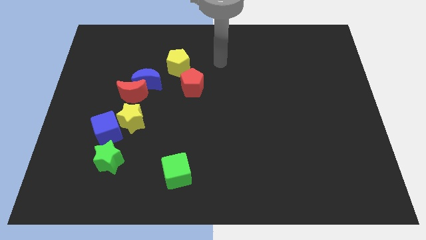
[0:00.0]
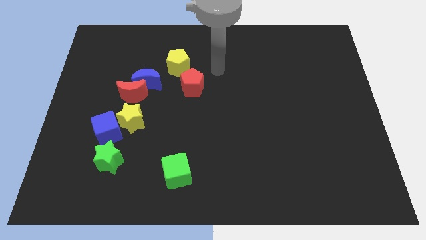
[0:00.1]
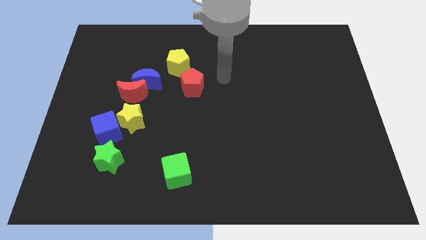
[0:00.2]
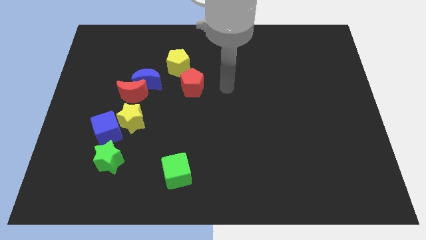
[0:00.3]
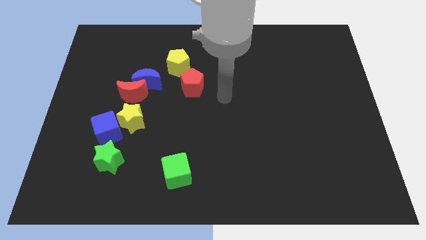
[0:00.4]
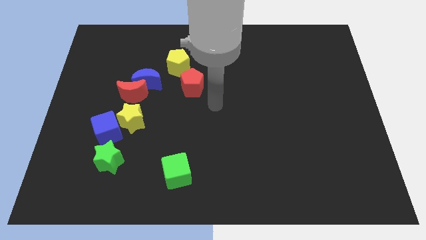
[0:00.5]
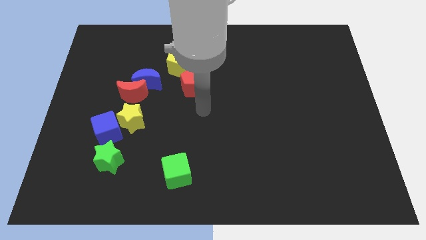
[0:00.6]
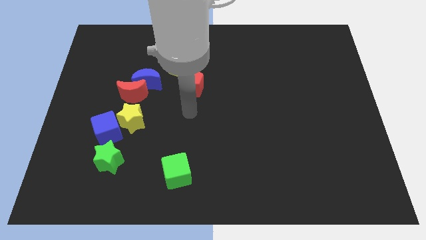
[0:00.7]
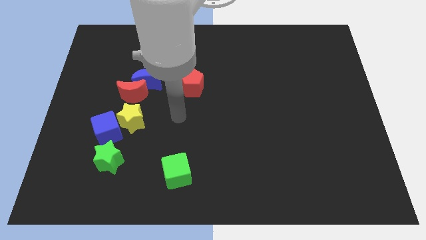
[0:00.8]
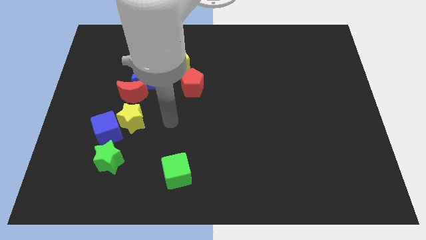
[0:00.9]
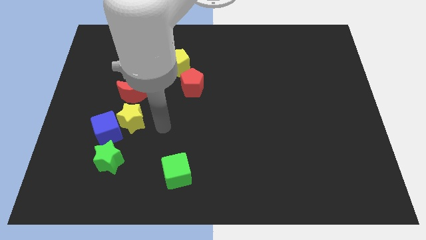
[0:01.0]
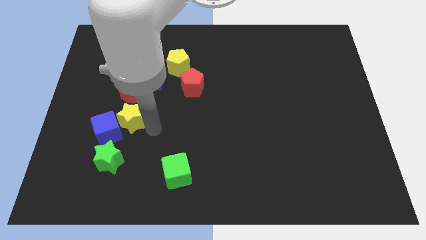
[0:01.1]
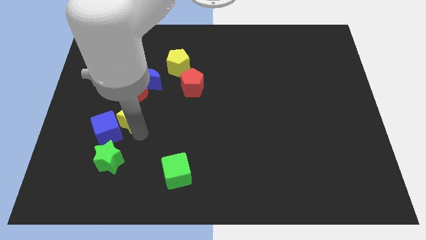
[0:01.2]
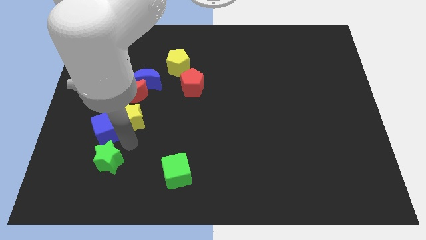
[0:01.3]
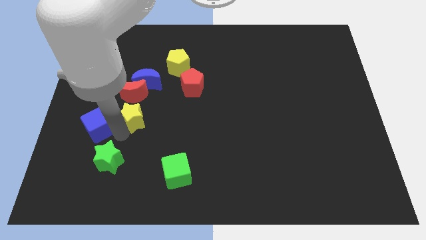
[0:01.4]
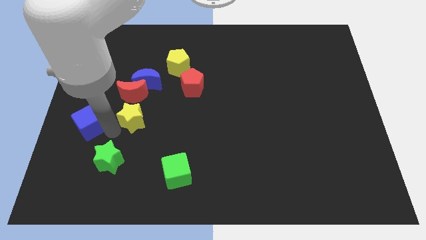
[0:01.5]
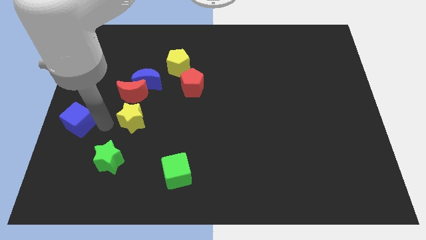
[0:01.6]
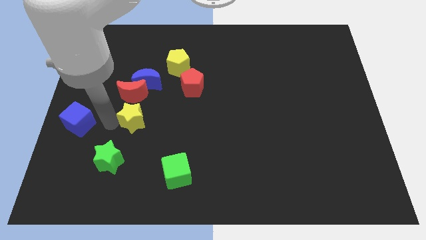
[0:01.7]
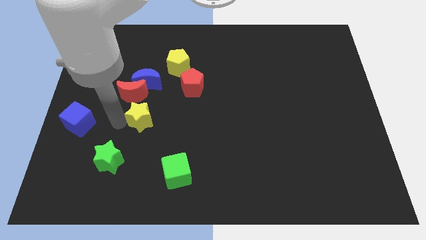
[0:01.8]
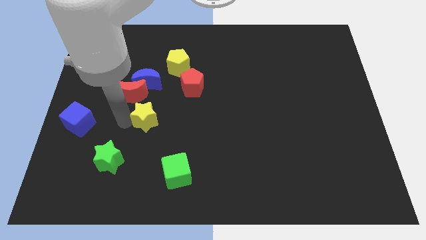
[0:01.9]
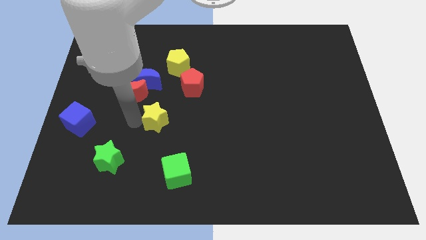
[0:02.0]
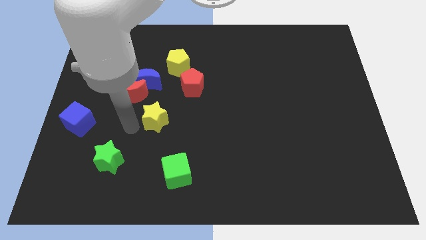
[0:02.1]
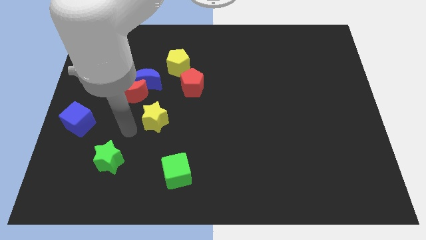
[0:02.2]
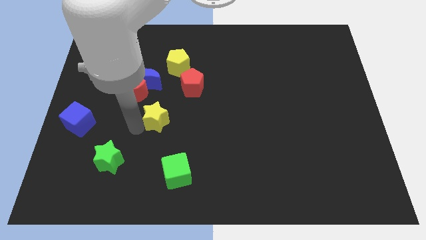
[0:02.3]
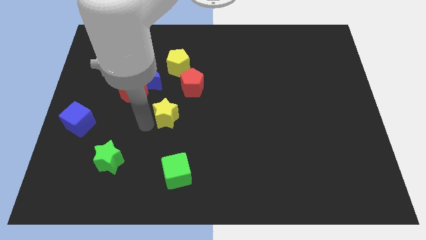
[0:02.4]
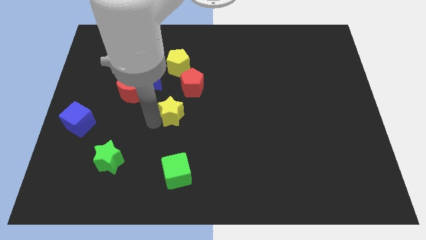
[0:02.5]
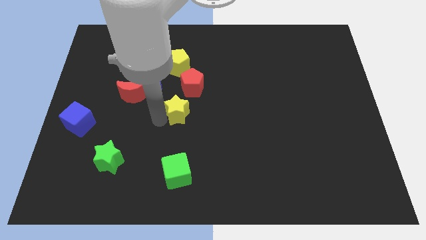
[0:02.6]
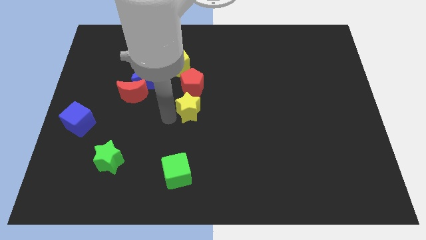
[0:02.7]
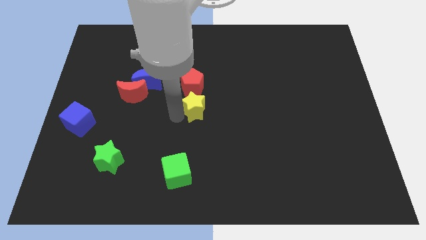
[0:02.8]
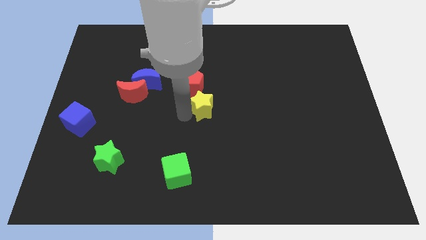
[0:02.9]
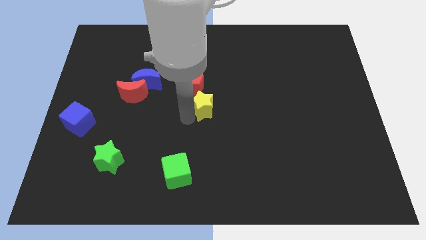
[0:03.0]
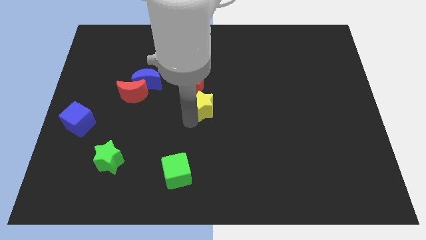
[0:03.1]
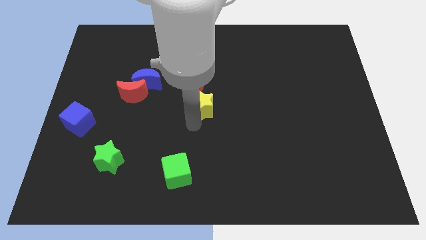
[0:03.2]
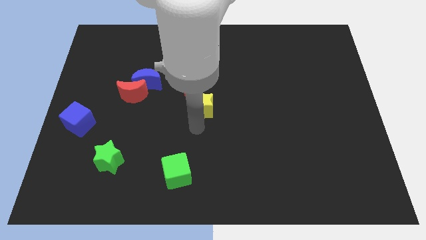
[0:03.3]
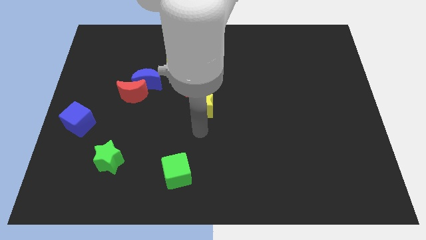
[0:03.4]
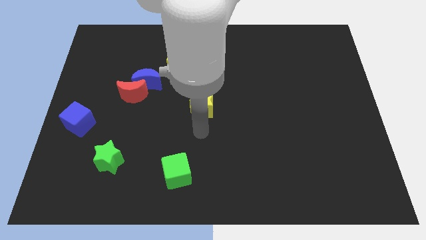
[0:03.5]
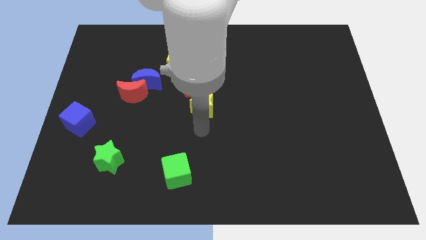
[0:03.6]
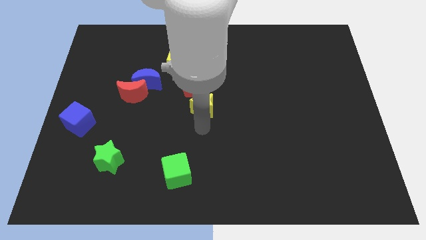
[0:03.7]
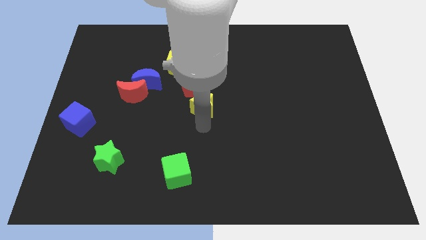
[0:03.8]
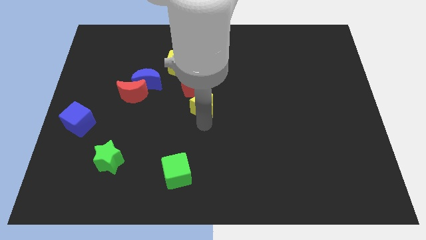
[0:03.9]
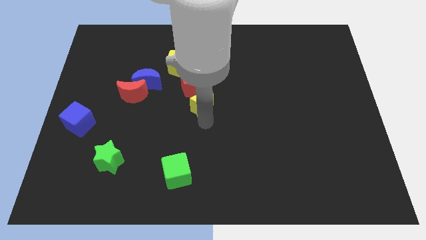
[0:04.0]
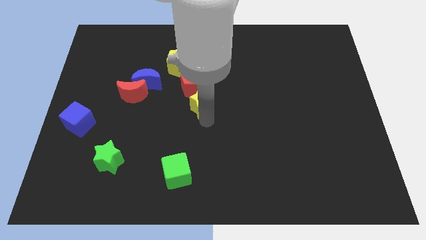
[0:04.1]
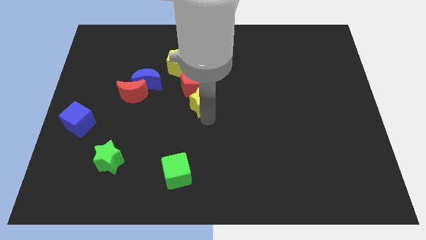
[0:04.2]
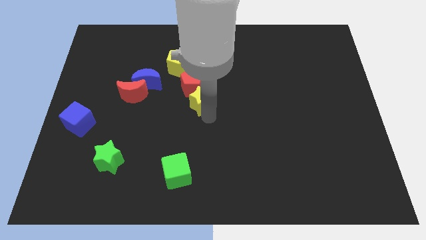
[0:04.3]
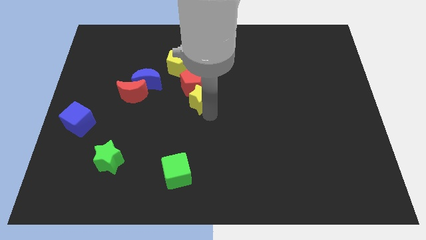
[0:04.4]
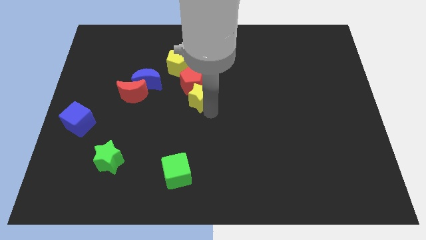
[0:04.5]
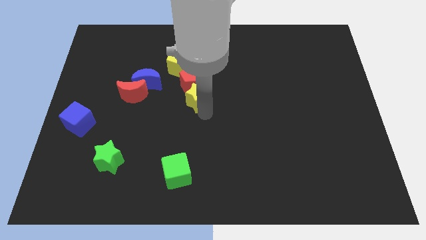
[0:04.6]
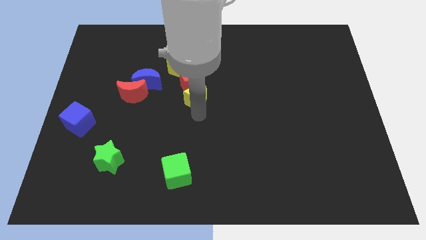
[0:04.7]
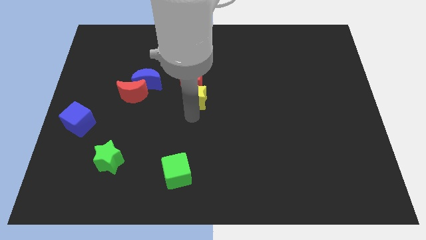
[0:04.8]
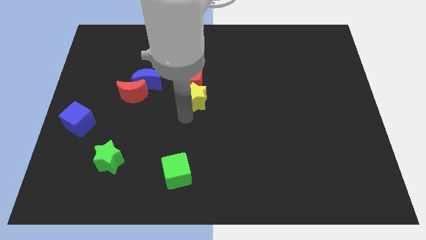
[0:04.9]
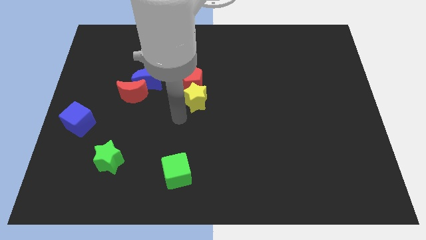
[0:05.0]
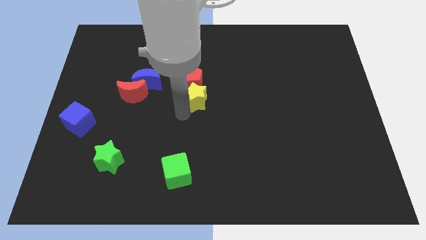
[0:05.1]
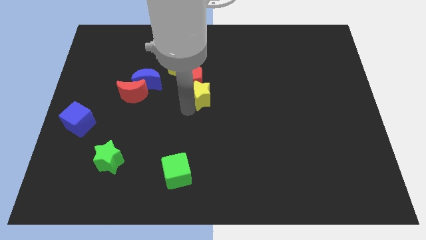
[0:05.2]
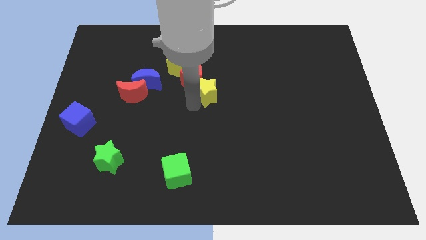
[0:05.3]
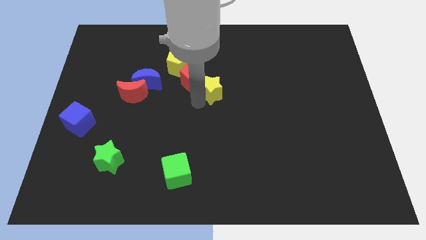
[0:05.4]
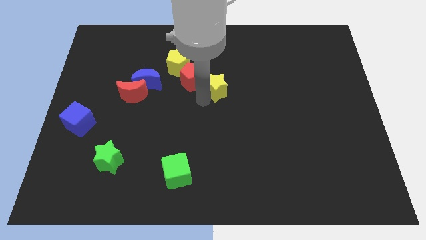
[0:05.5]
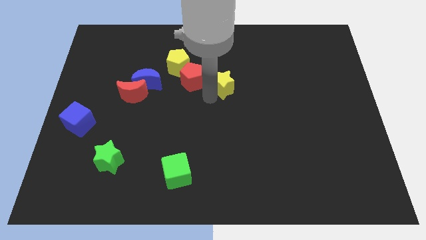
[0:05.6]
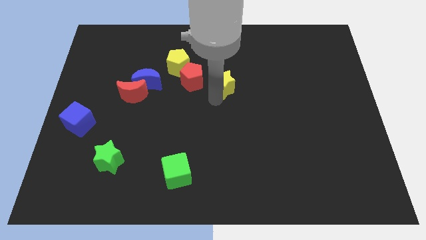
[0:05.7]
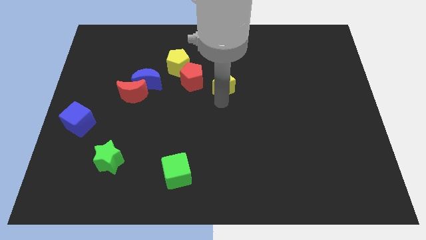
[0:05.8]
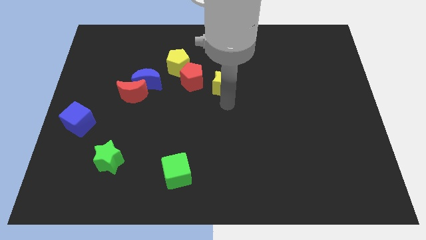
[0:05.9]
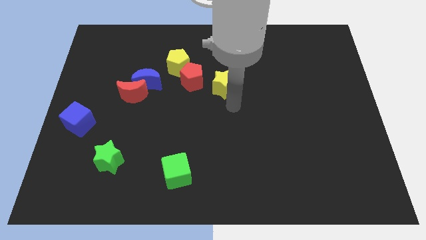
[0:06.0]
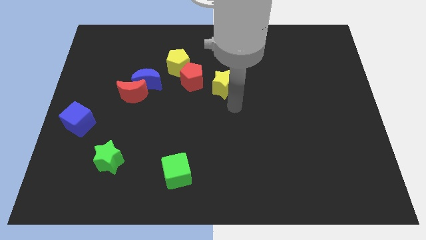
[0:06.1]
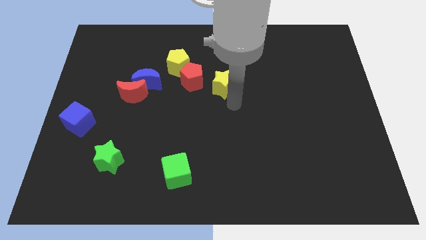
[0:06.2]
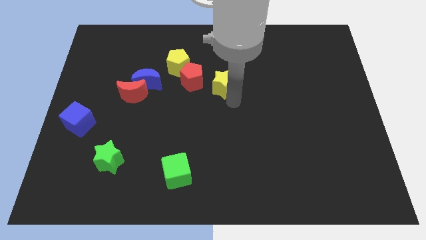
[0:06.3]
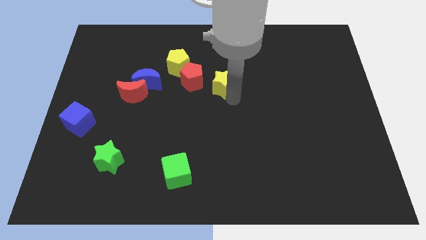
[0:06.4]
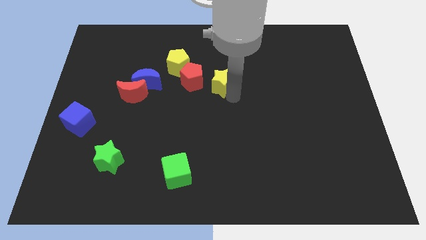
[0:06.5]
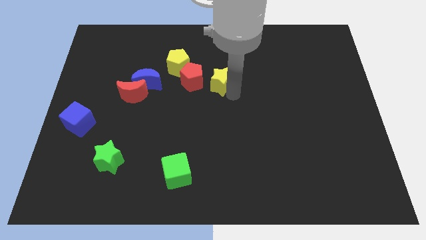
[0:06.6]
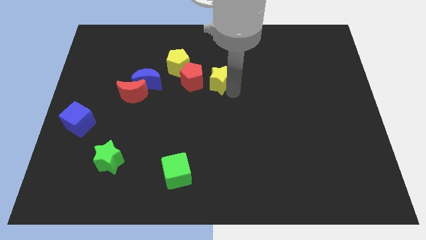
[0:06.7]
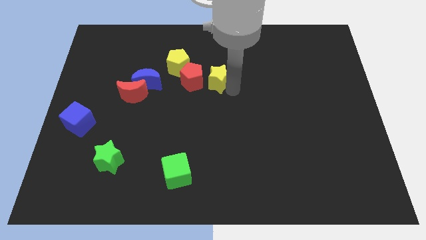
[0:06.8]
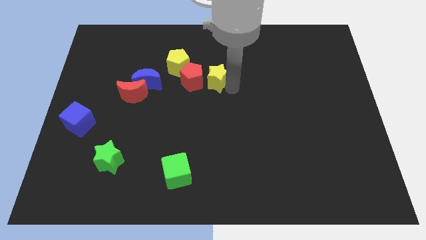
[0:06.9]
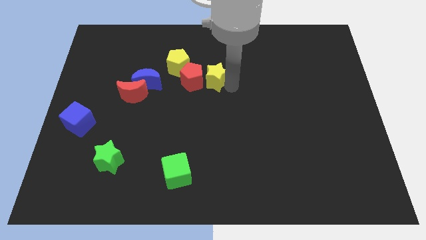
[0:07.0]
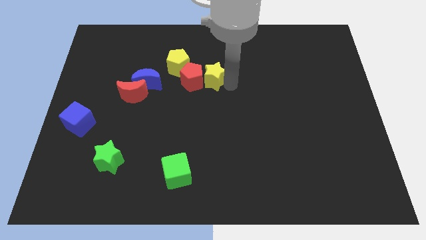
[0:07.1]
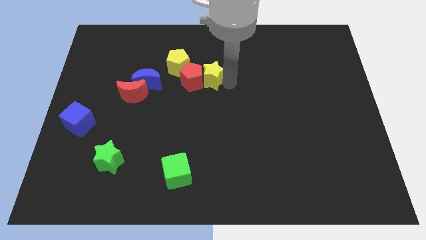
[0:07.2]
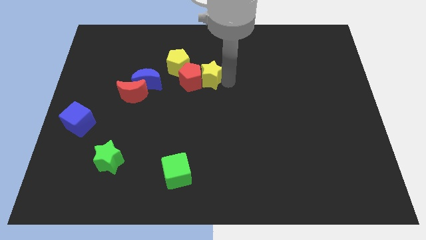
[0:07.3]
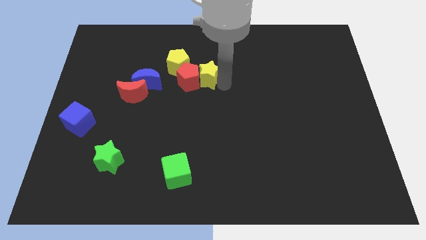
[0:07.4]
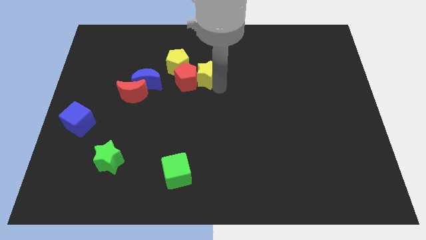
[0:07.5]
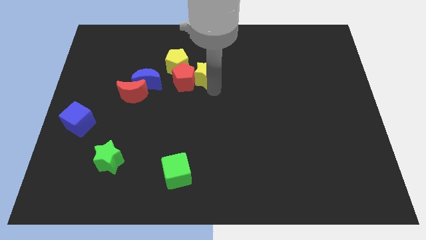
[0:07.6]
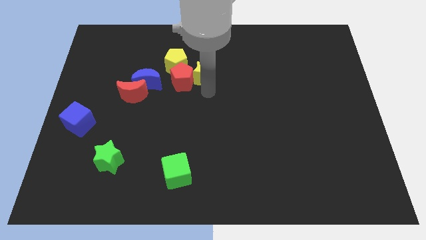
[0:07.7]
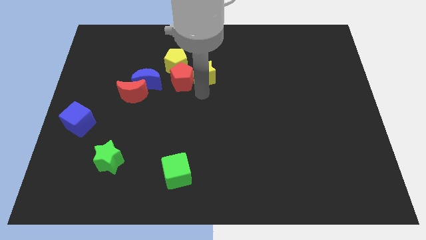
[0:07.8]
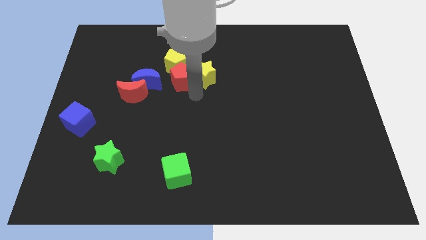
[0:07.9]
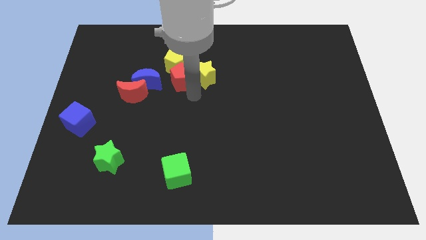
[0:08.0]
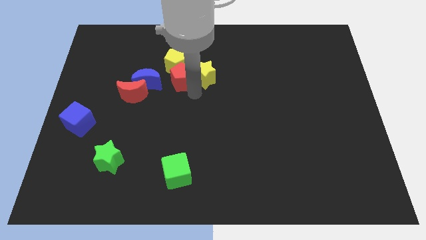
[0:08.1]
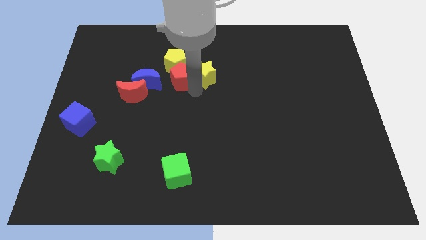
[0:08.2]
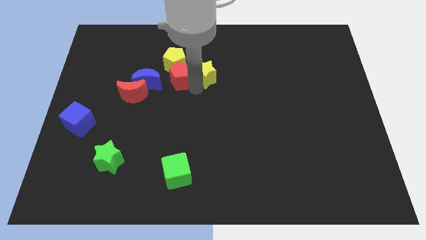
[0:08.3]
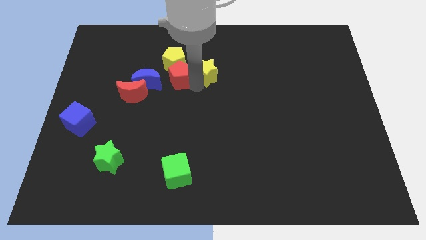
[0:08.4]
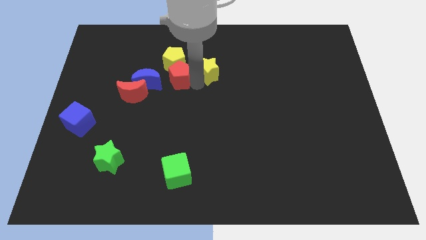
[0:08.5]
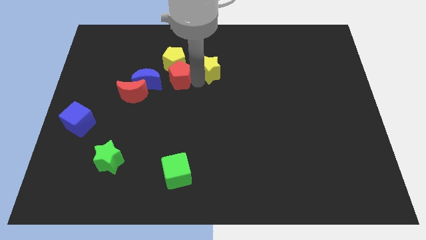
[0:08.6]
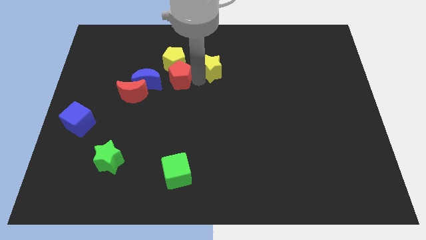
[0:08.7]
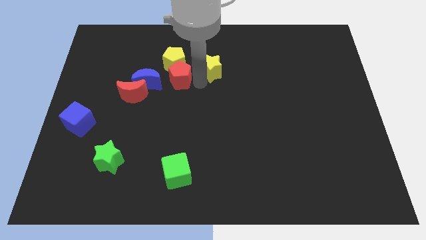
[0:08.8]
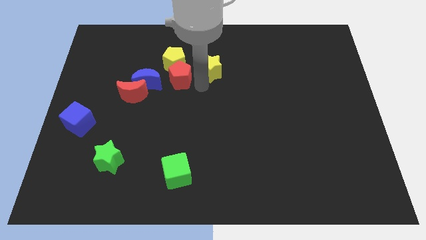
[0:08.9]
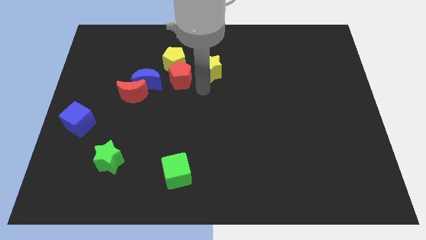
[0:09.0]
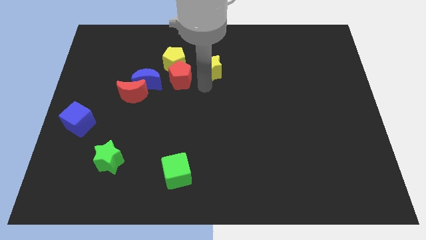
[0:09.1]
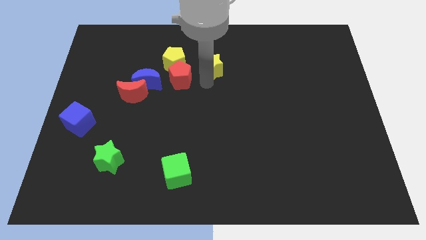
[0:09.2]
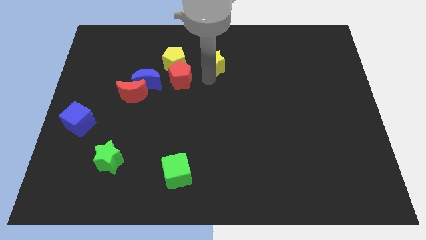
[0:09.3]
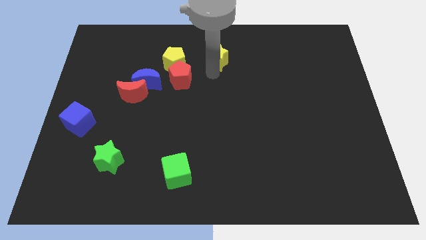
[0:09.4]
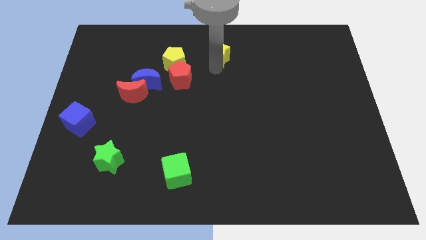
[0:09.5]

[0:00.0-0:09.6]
slide the yellow star to the top
